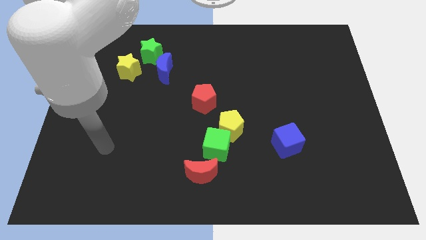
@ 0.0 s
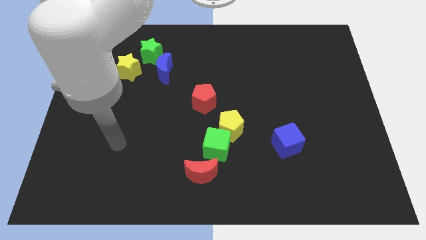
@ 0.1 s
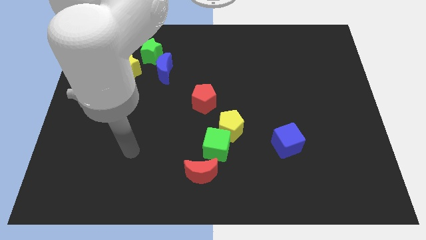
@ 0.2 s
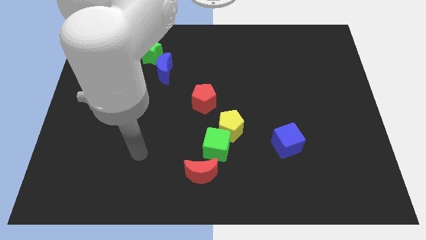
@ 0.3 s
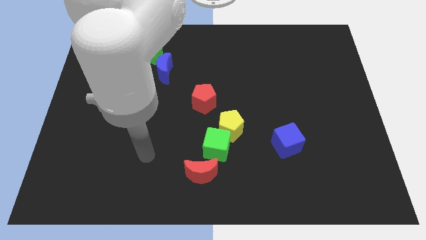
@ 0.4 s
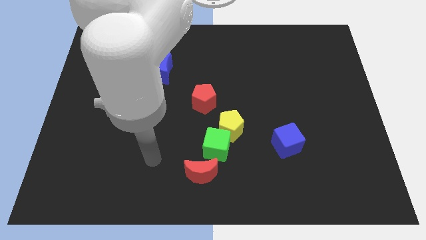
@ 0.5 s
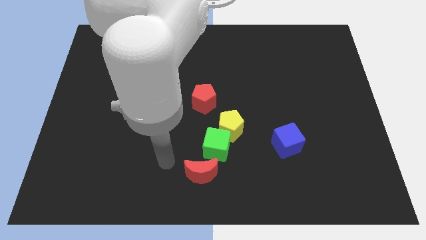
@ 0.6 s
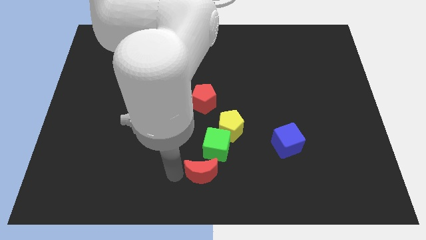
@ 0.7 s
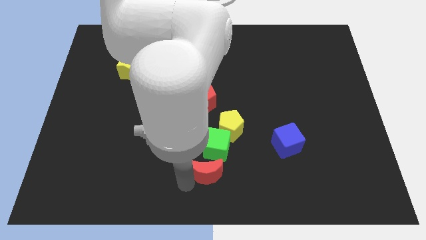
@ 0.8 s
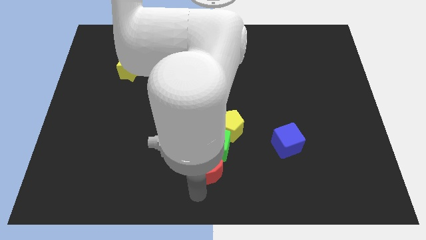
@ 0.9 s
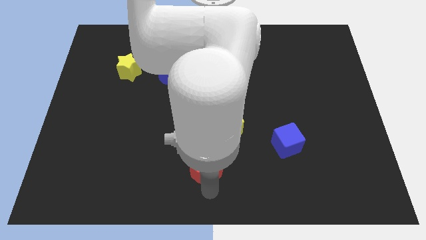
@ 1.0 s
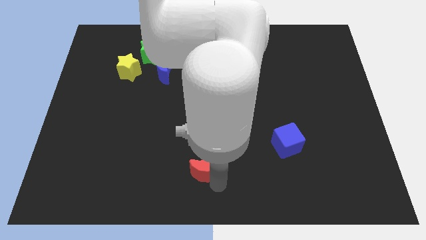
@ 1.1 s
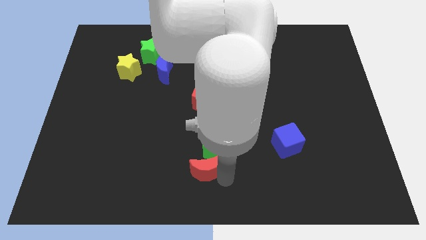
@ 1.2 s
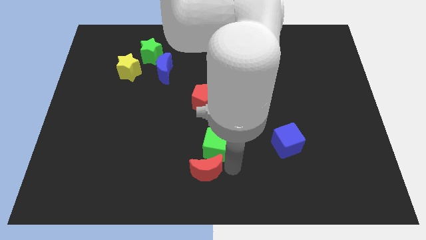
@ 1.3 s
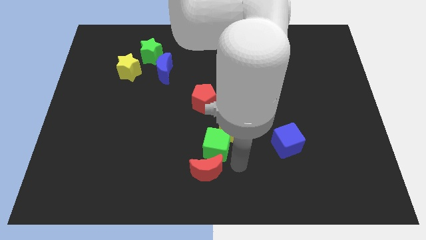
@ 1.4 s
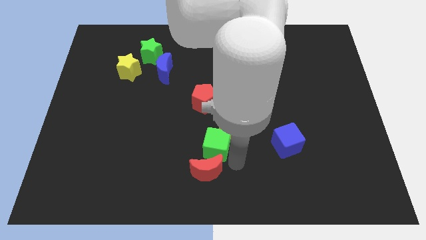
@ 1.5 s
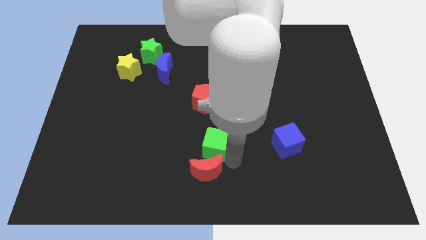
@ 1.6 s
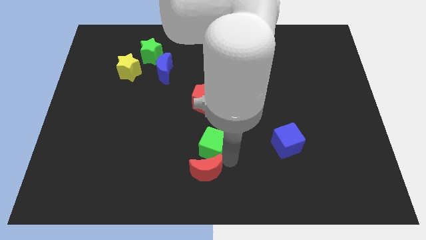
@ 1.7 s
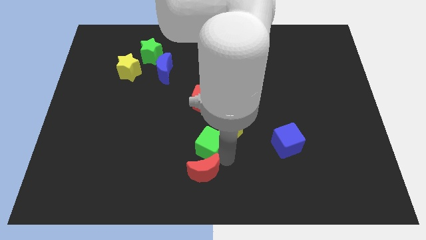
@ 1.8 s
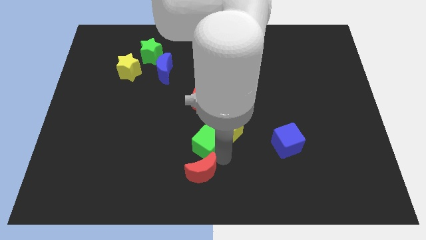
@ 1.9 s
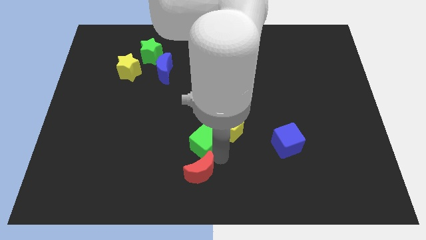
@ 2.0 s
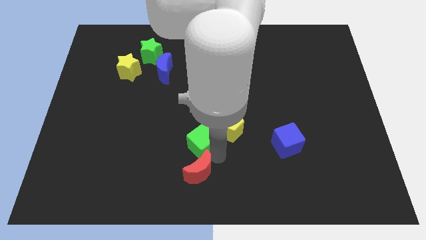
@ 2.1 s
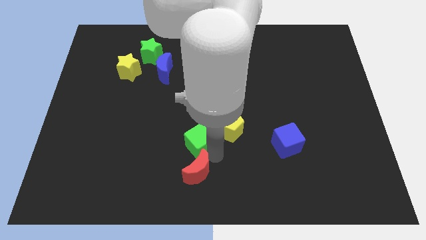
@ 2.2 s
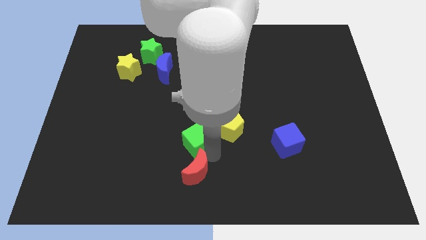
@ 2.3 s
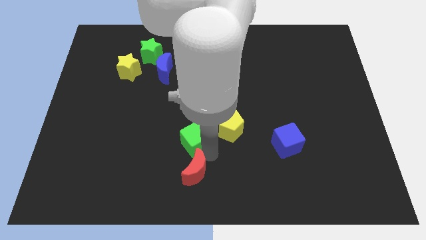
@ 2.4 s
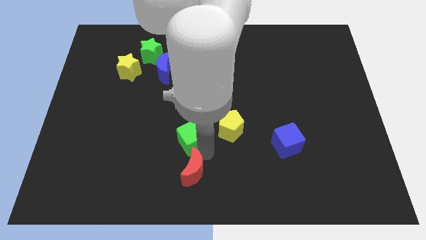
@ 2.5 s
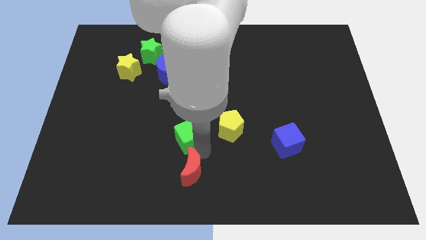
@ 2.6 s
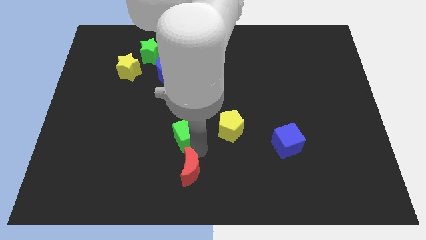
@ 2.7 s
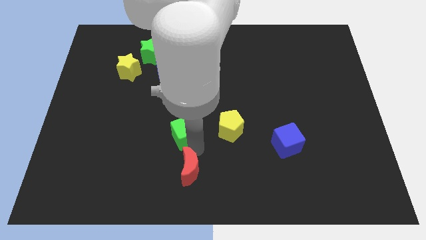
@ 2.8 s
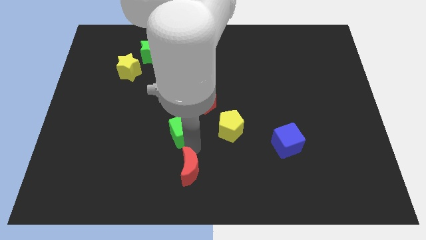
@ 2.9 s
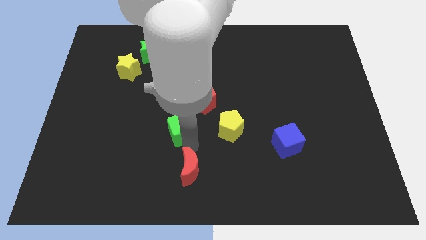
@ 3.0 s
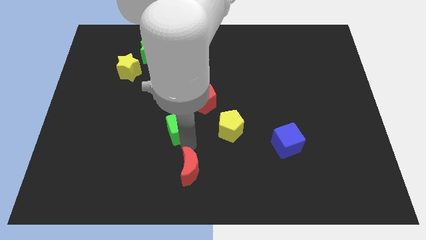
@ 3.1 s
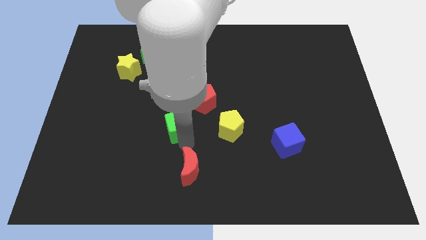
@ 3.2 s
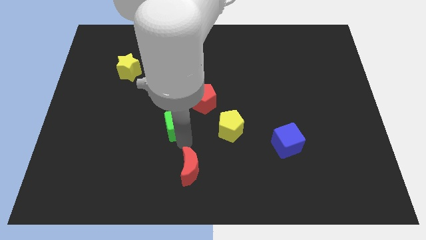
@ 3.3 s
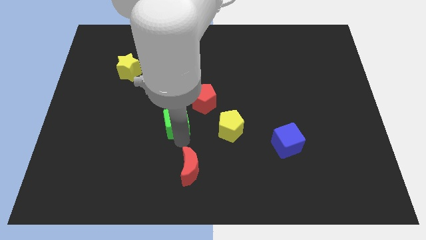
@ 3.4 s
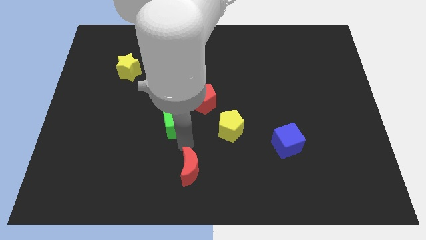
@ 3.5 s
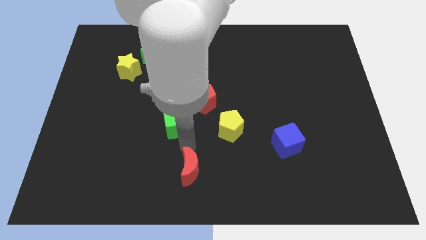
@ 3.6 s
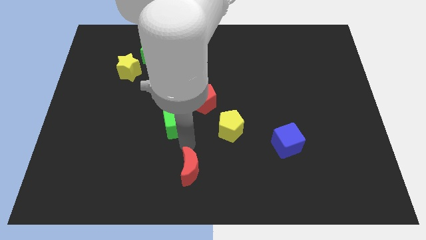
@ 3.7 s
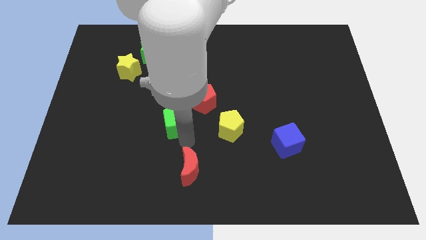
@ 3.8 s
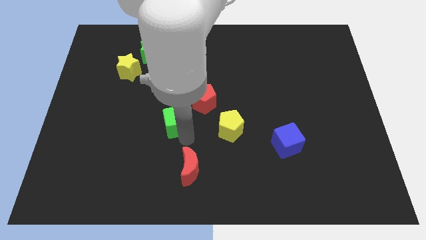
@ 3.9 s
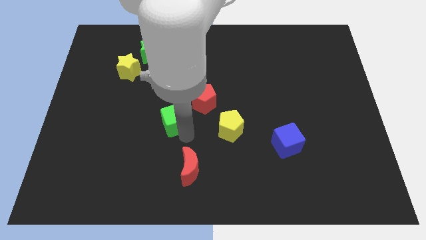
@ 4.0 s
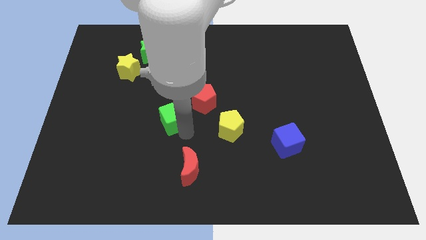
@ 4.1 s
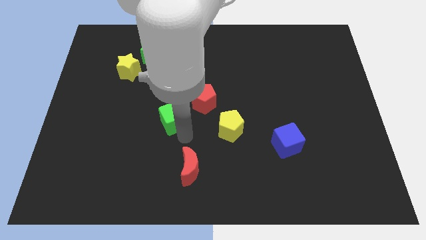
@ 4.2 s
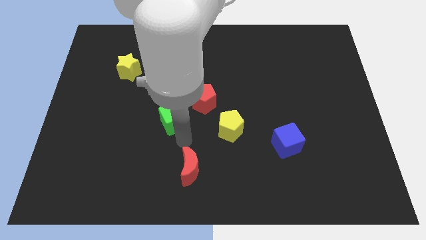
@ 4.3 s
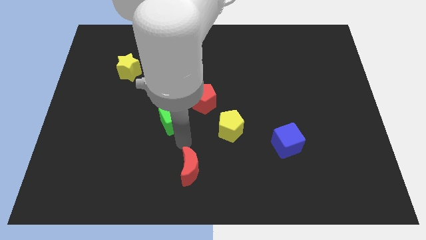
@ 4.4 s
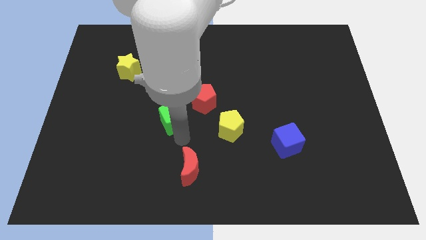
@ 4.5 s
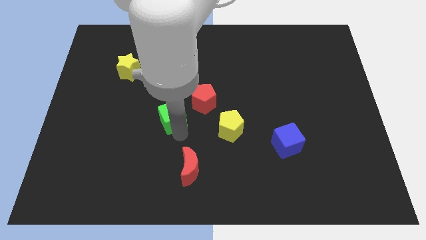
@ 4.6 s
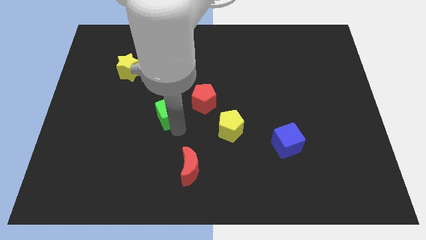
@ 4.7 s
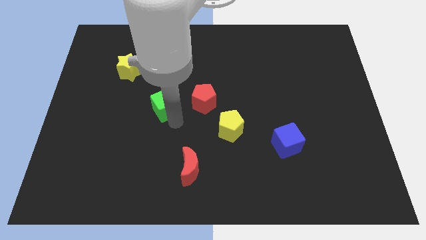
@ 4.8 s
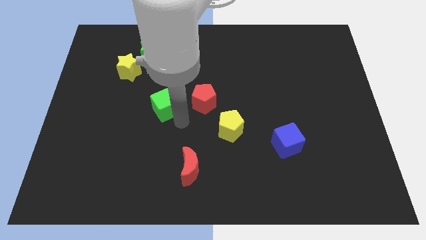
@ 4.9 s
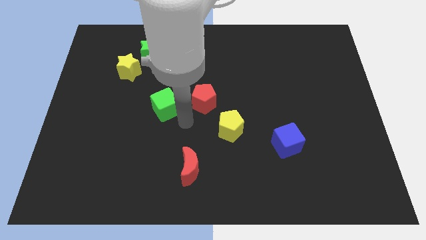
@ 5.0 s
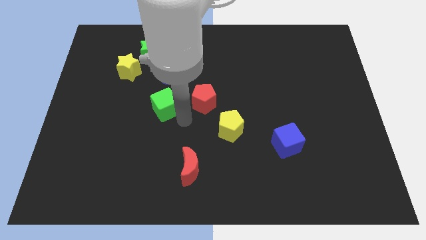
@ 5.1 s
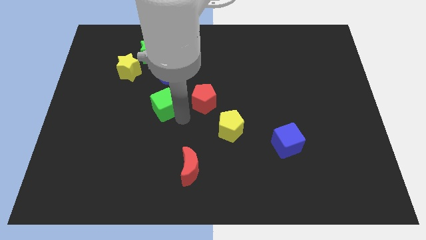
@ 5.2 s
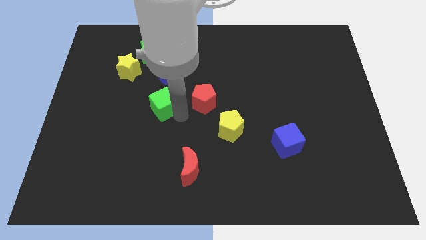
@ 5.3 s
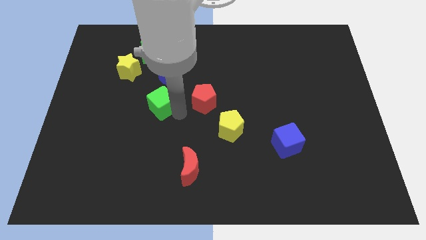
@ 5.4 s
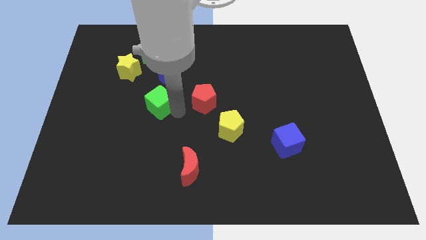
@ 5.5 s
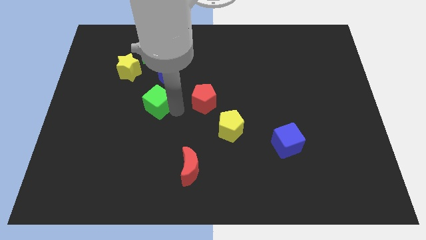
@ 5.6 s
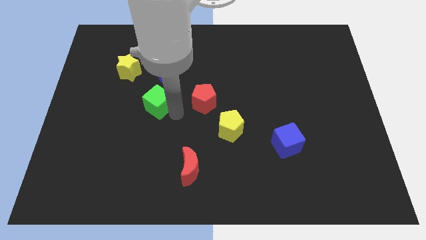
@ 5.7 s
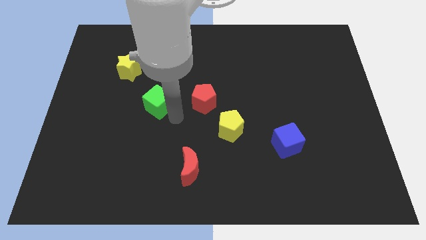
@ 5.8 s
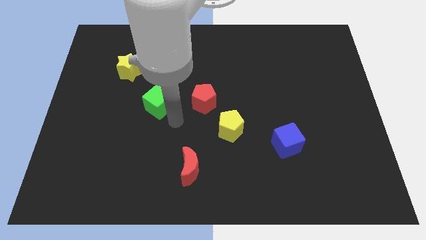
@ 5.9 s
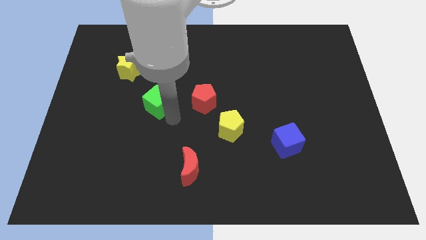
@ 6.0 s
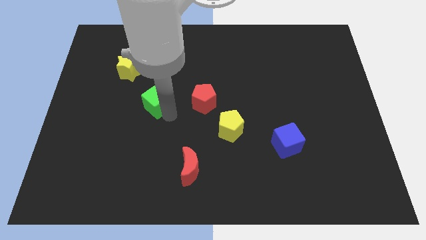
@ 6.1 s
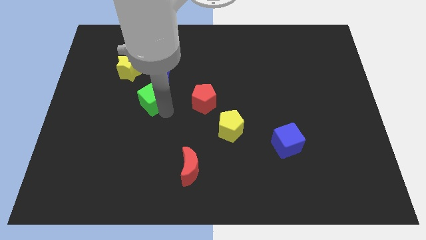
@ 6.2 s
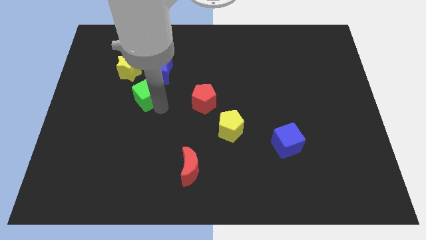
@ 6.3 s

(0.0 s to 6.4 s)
move the green cube diagonally down and to the left of the blue moon

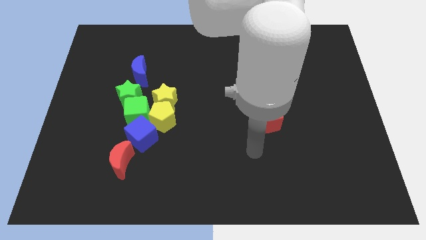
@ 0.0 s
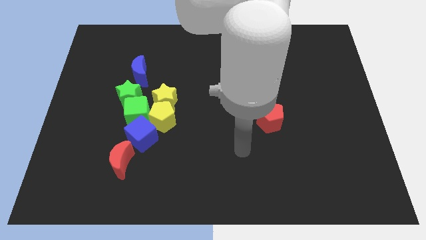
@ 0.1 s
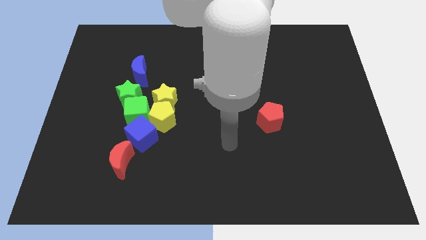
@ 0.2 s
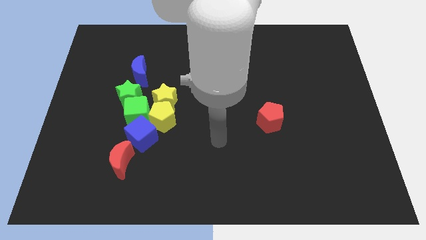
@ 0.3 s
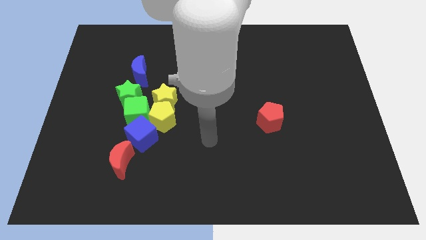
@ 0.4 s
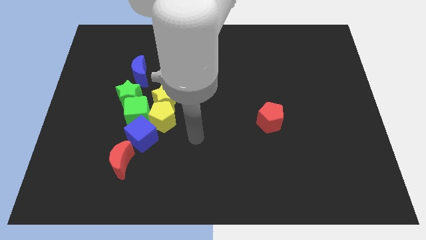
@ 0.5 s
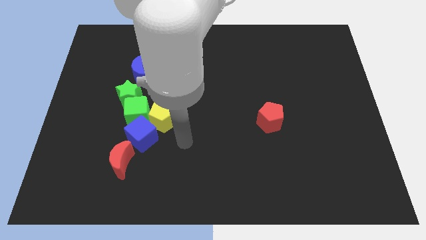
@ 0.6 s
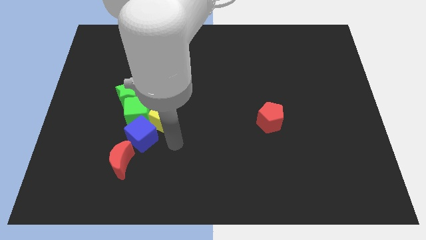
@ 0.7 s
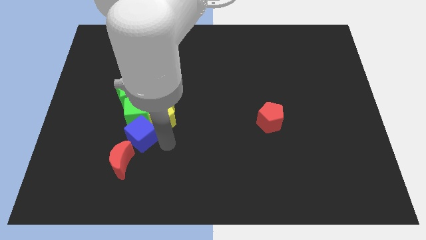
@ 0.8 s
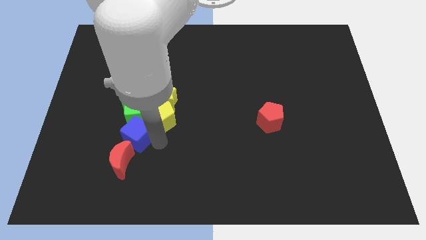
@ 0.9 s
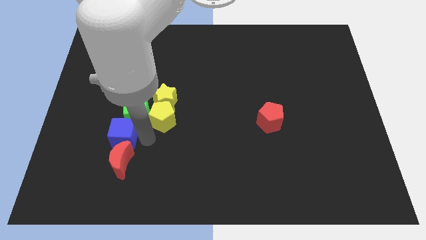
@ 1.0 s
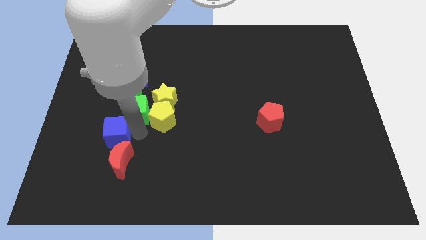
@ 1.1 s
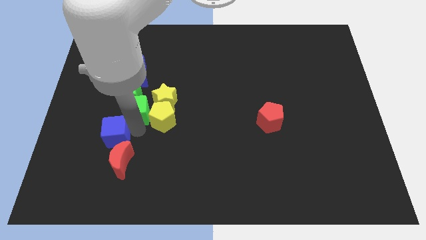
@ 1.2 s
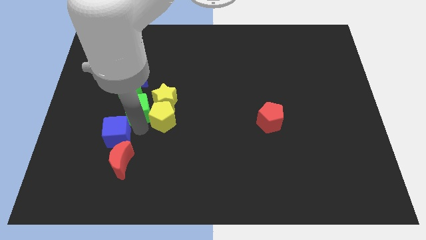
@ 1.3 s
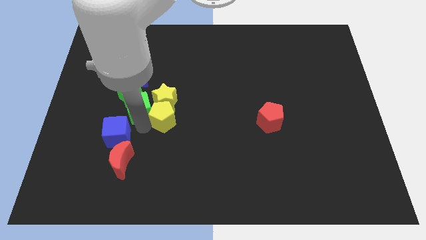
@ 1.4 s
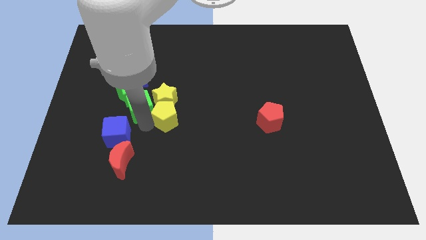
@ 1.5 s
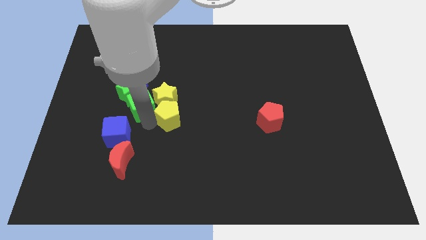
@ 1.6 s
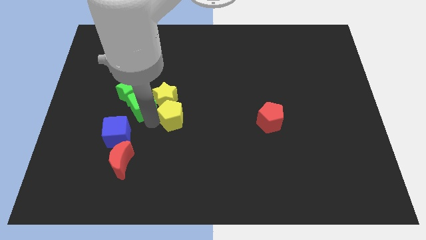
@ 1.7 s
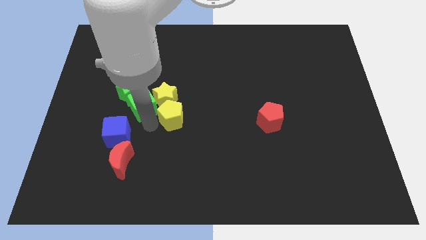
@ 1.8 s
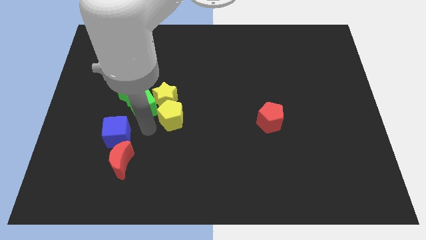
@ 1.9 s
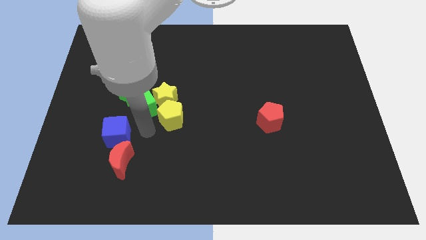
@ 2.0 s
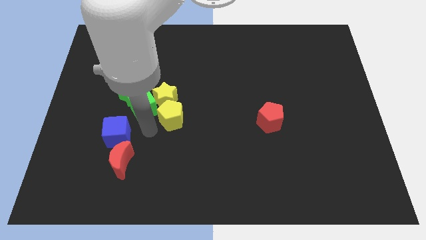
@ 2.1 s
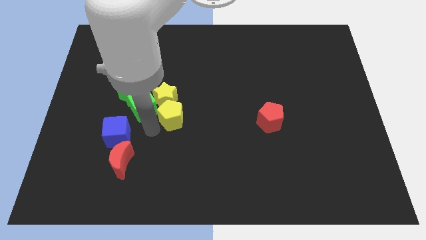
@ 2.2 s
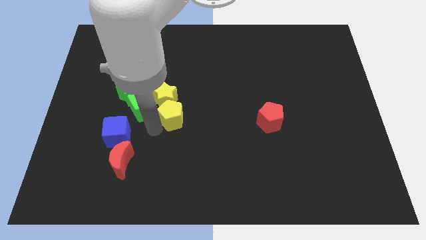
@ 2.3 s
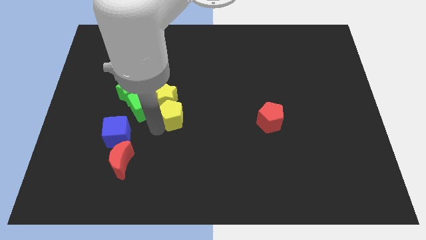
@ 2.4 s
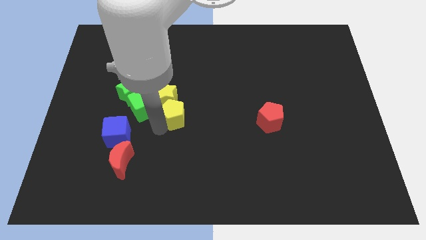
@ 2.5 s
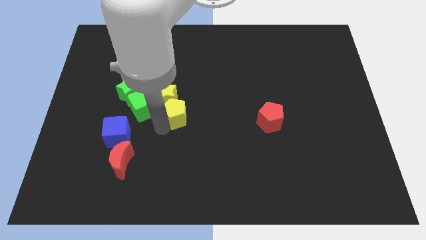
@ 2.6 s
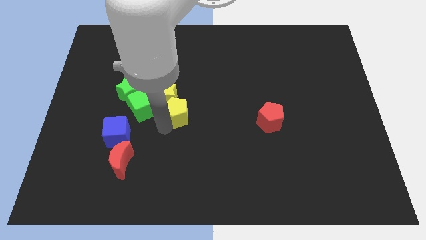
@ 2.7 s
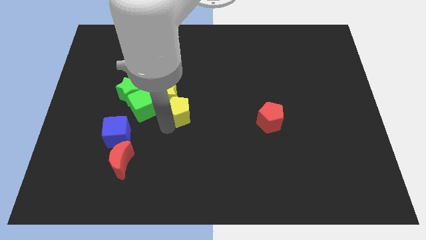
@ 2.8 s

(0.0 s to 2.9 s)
put the yellow pentagon to the right side of the yellow star
